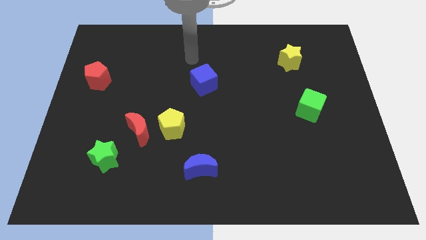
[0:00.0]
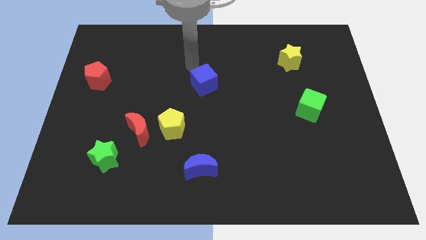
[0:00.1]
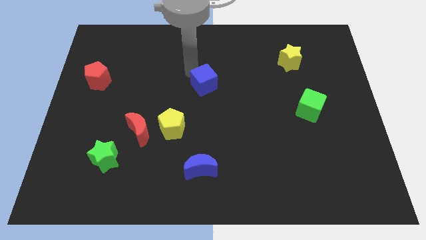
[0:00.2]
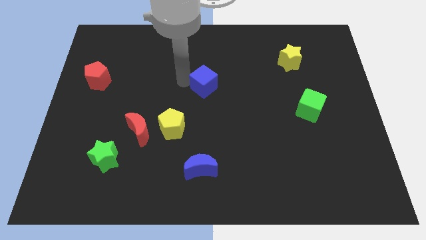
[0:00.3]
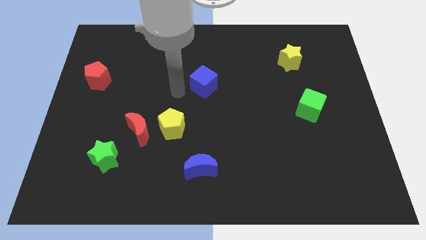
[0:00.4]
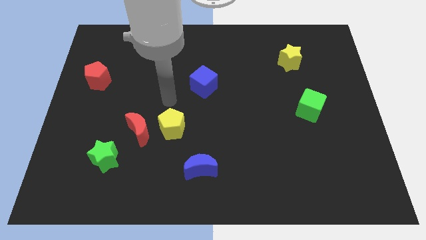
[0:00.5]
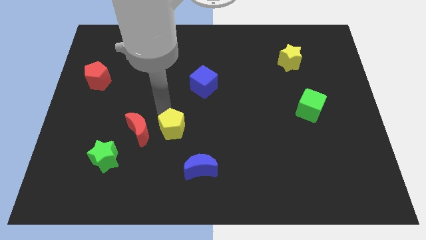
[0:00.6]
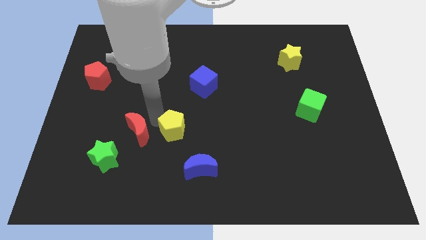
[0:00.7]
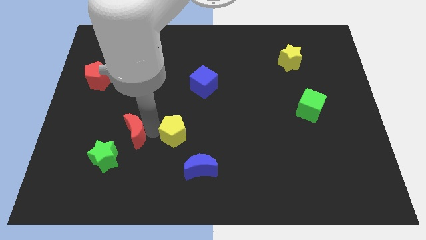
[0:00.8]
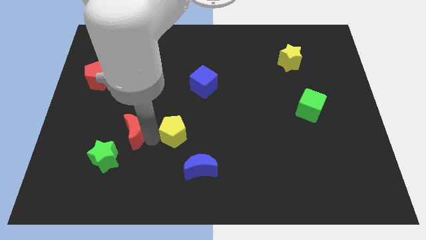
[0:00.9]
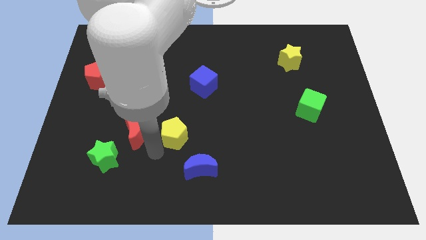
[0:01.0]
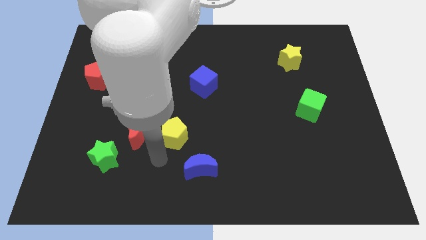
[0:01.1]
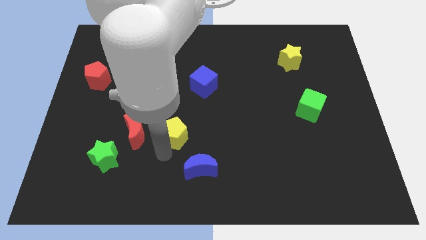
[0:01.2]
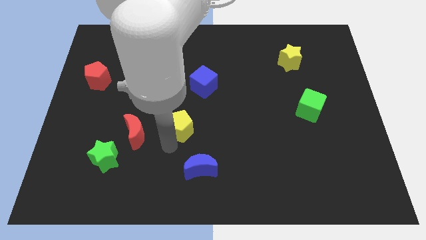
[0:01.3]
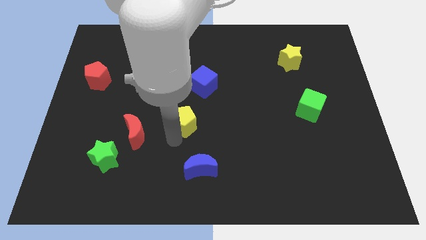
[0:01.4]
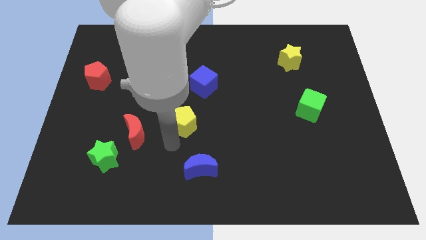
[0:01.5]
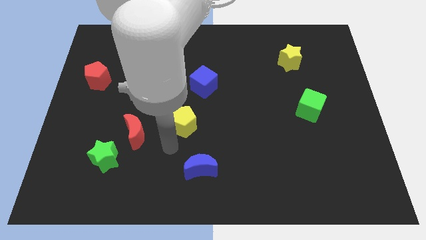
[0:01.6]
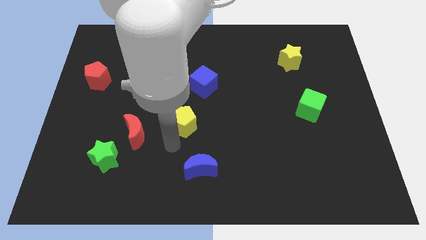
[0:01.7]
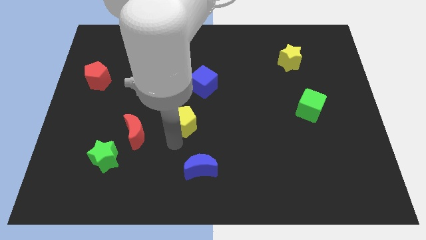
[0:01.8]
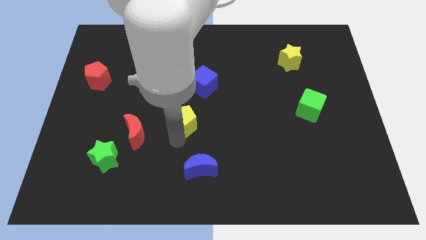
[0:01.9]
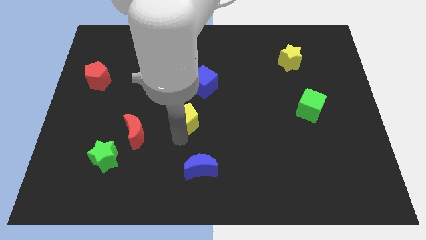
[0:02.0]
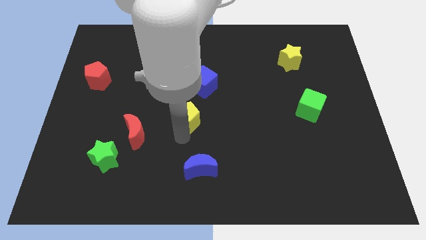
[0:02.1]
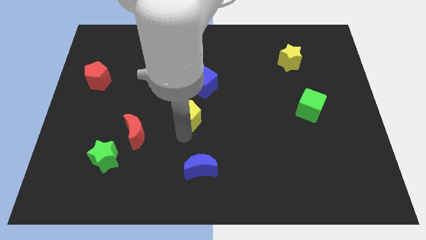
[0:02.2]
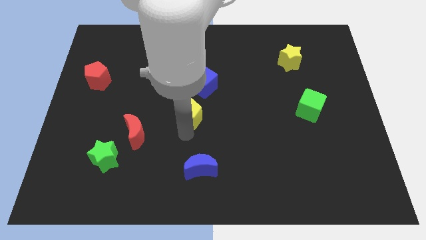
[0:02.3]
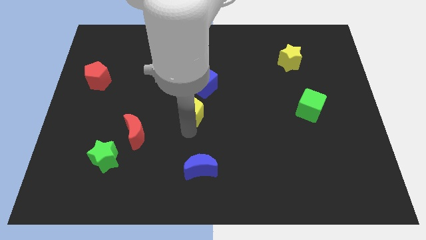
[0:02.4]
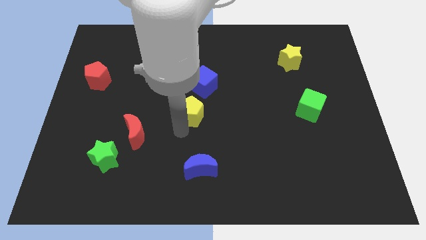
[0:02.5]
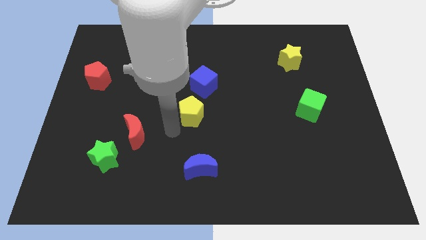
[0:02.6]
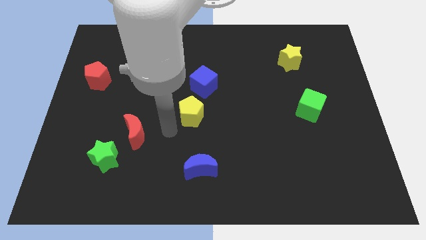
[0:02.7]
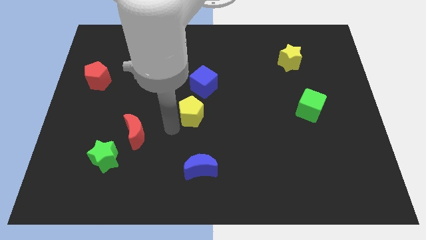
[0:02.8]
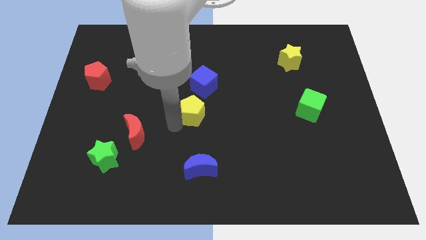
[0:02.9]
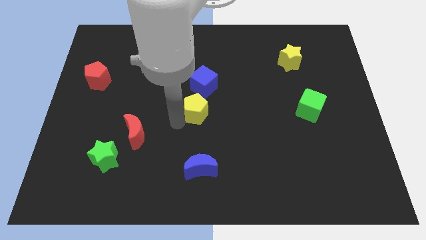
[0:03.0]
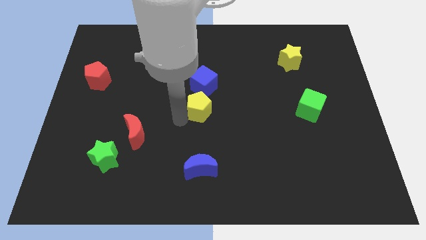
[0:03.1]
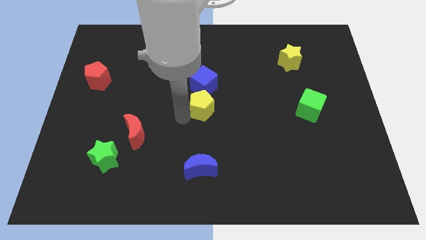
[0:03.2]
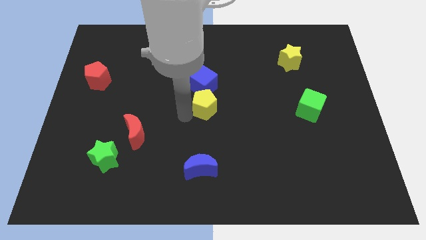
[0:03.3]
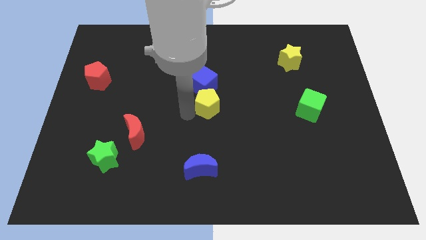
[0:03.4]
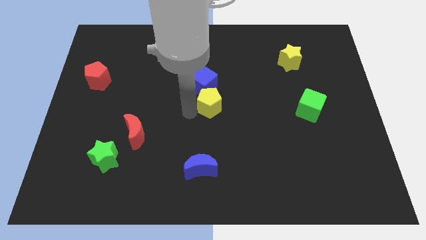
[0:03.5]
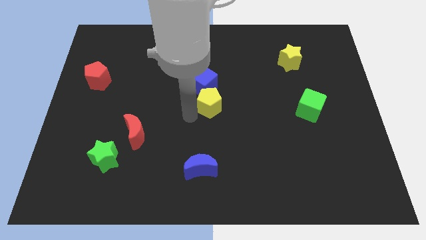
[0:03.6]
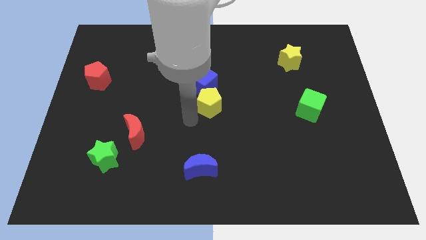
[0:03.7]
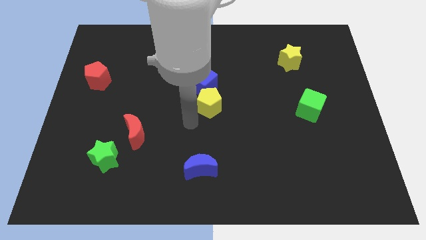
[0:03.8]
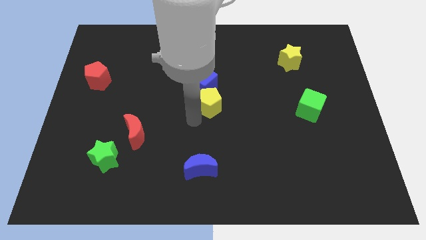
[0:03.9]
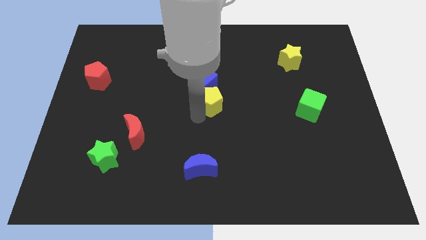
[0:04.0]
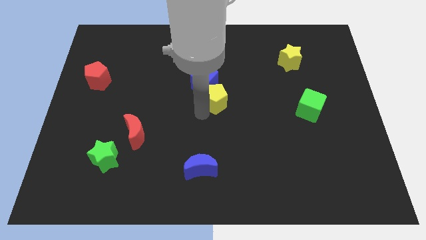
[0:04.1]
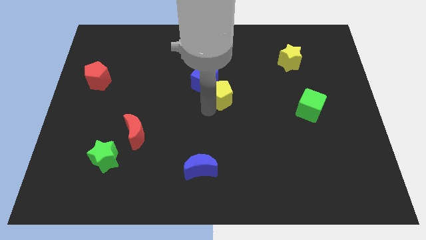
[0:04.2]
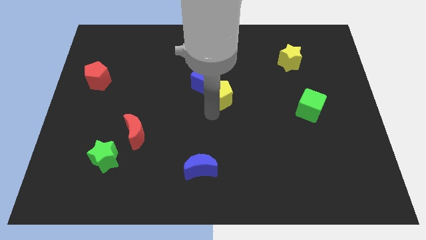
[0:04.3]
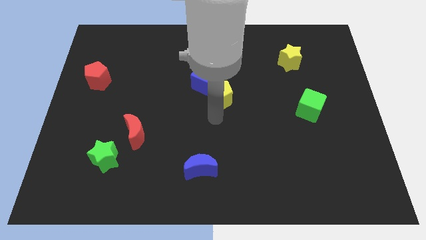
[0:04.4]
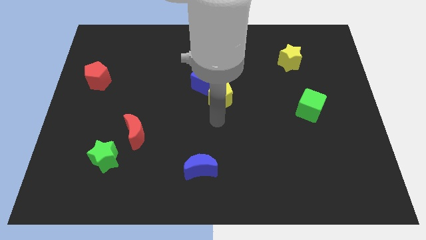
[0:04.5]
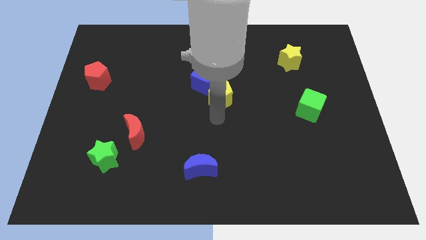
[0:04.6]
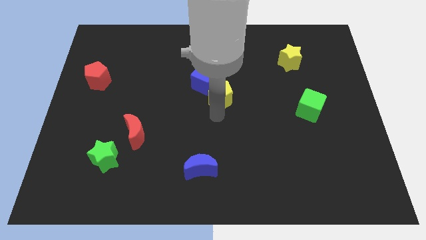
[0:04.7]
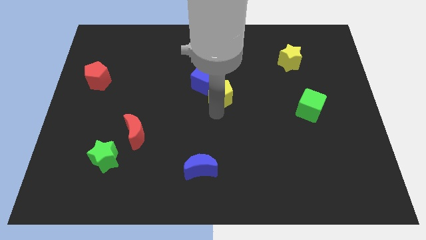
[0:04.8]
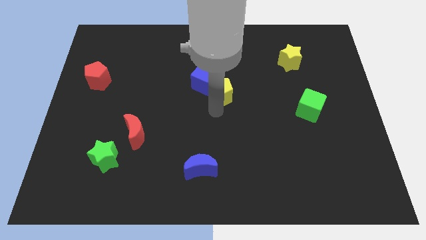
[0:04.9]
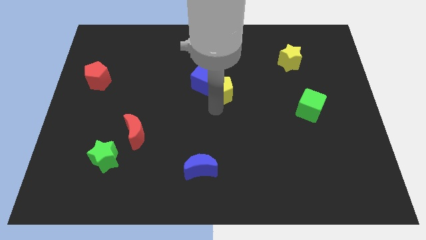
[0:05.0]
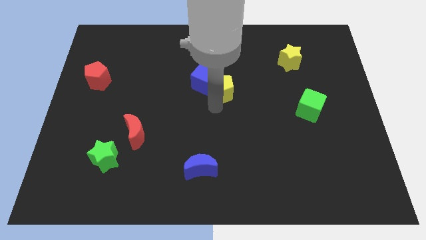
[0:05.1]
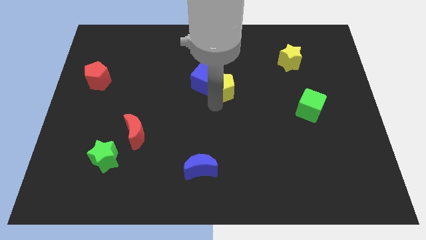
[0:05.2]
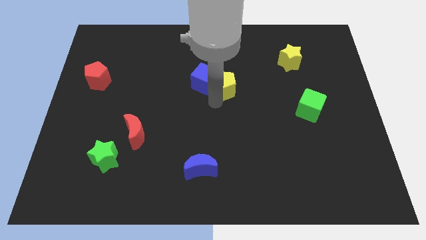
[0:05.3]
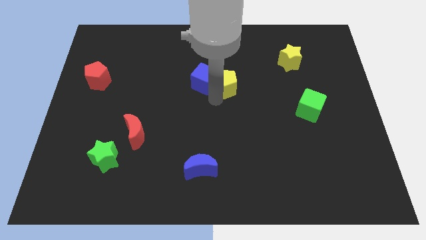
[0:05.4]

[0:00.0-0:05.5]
put the yellow pentagon to the top right side of the blue cube

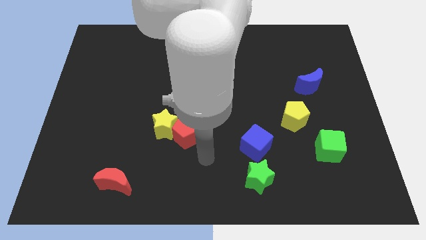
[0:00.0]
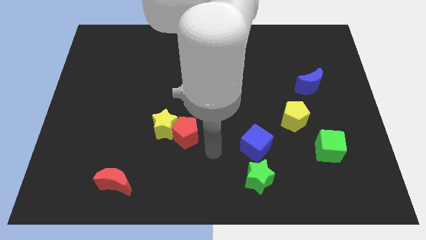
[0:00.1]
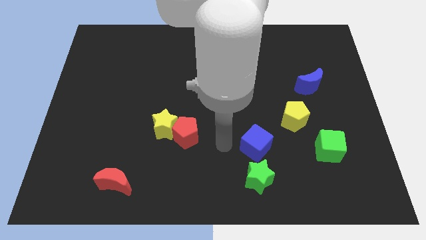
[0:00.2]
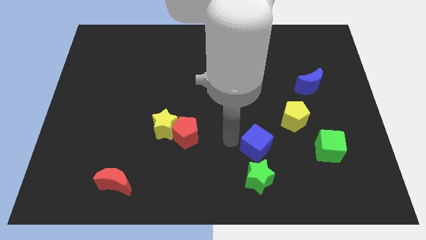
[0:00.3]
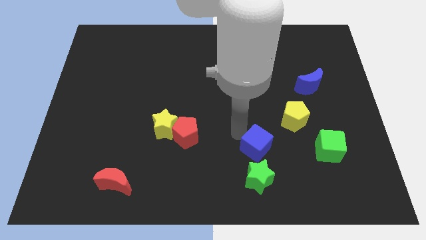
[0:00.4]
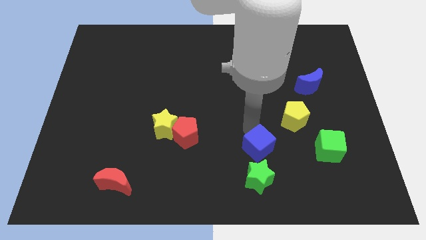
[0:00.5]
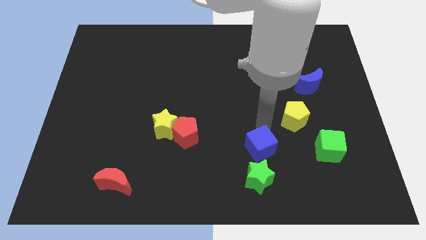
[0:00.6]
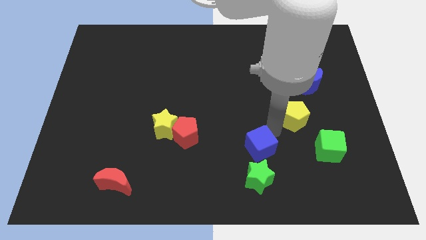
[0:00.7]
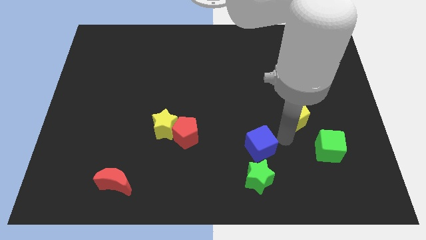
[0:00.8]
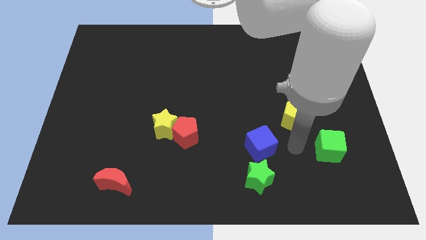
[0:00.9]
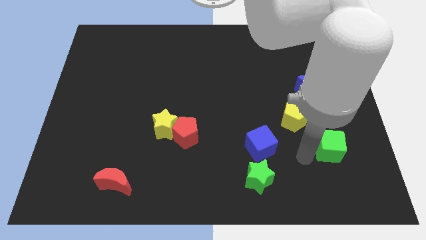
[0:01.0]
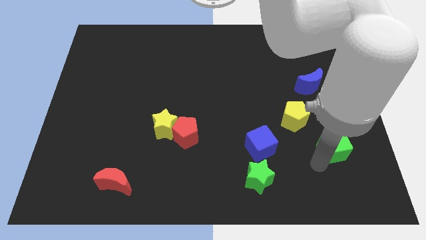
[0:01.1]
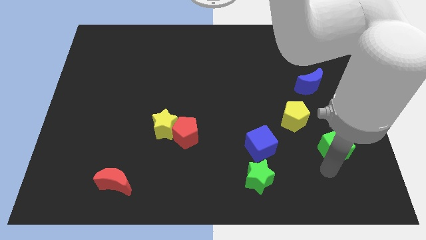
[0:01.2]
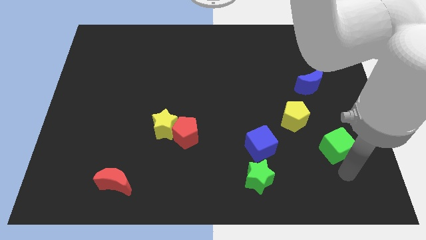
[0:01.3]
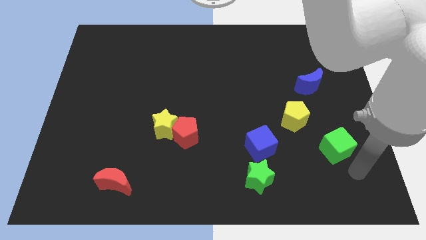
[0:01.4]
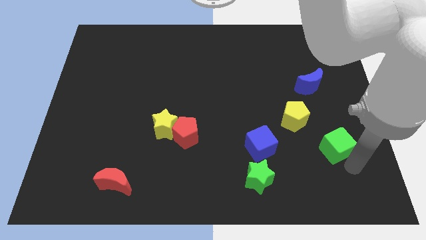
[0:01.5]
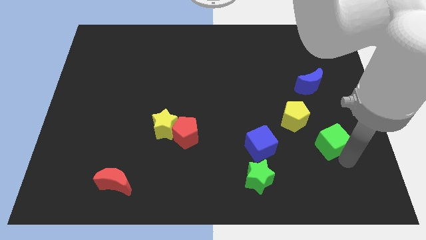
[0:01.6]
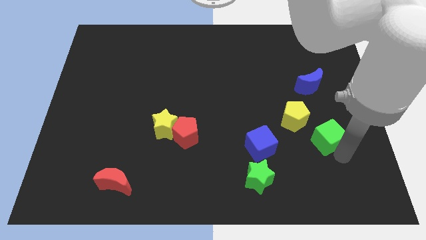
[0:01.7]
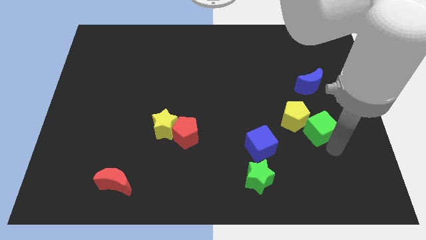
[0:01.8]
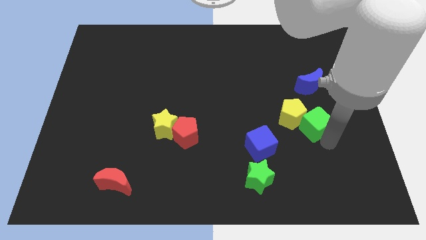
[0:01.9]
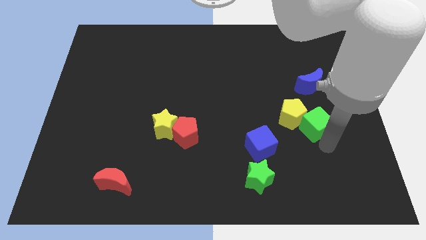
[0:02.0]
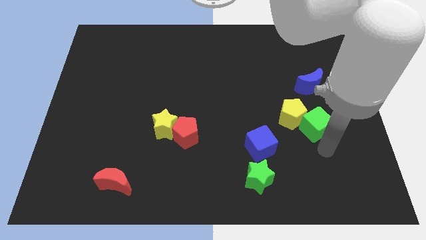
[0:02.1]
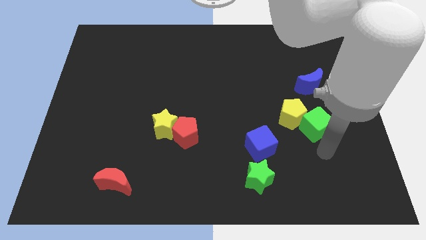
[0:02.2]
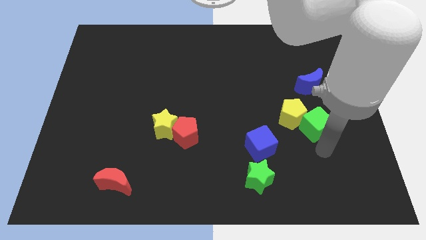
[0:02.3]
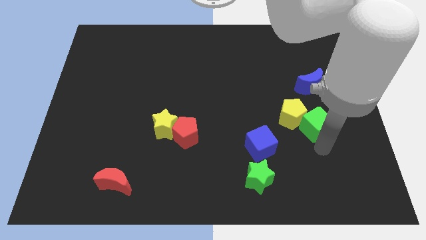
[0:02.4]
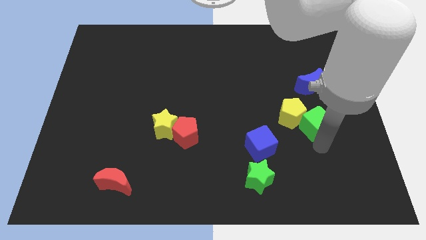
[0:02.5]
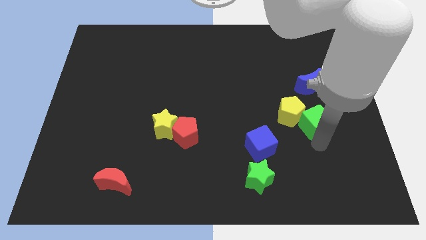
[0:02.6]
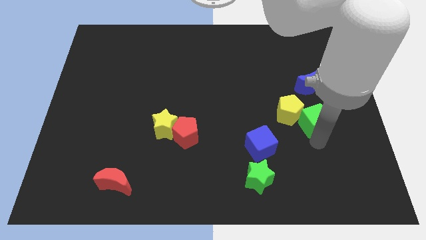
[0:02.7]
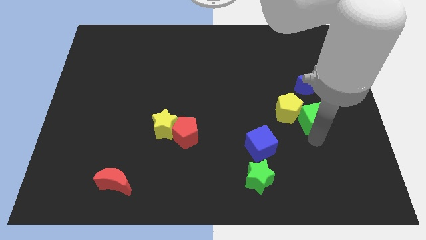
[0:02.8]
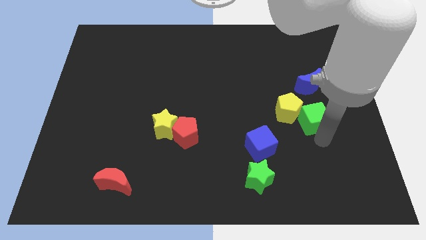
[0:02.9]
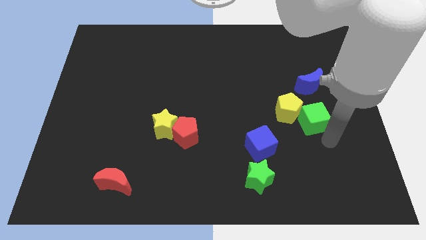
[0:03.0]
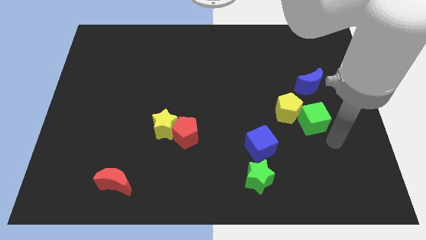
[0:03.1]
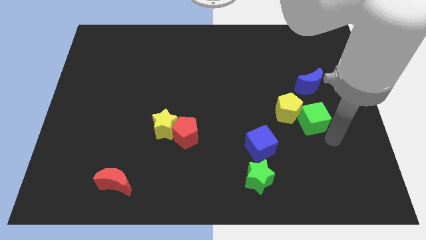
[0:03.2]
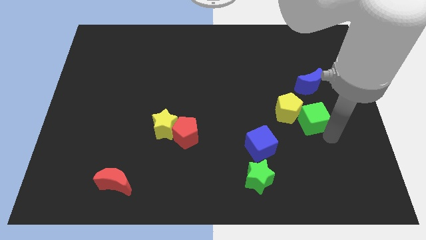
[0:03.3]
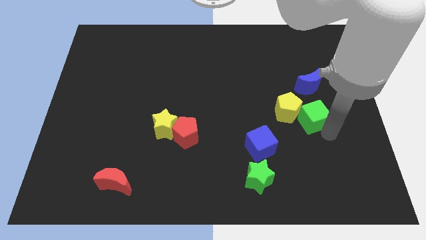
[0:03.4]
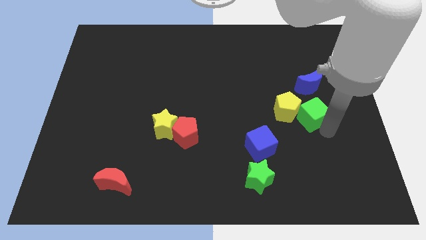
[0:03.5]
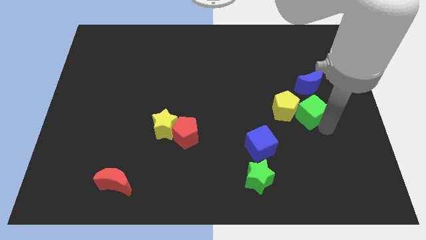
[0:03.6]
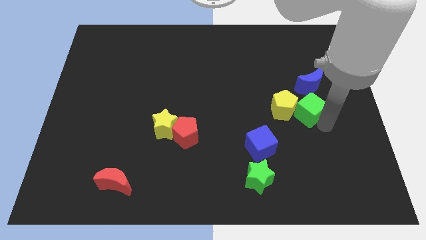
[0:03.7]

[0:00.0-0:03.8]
push the green cube diagonally down and to the left of the blue moon
